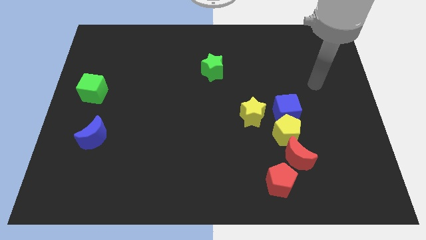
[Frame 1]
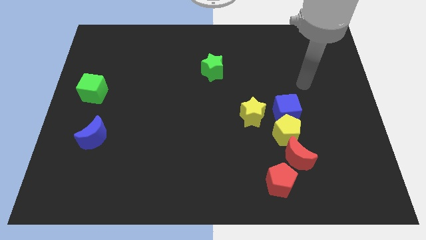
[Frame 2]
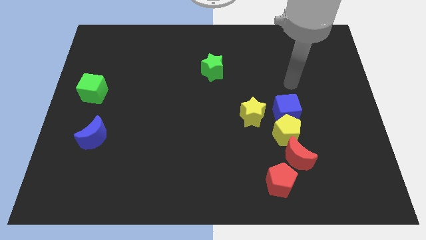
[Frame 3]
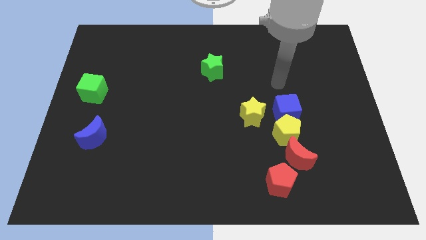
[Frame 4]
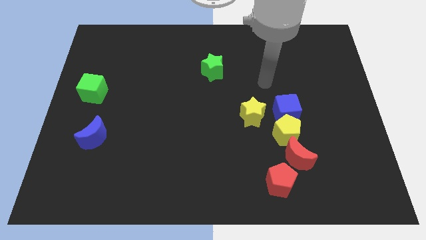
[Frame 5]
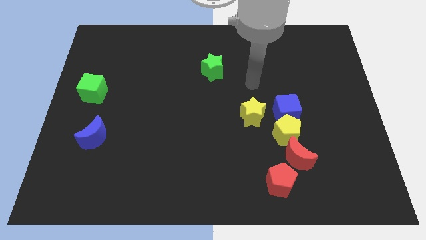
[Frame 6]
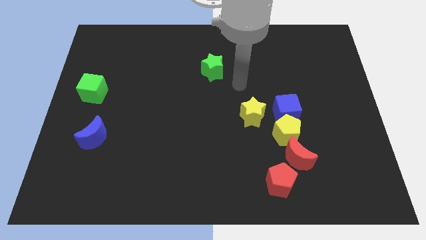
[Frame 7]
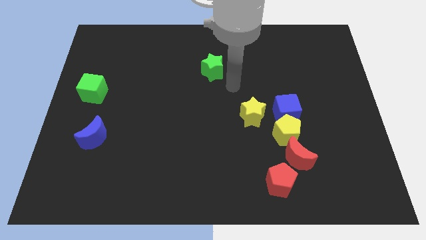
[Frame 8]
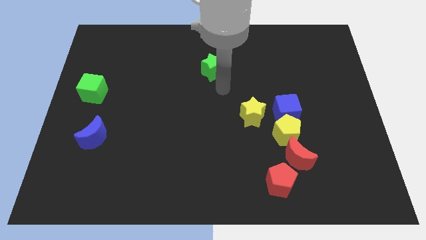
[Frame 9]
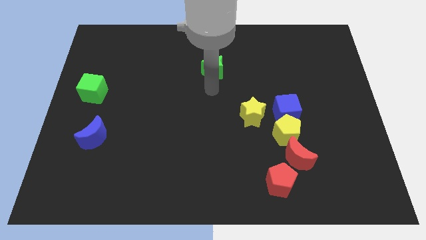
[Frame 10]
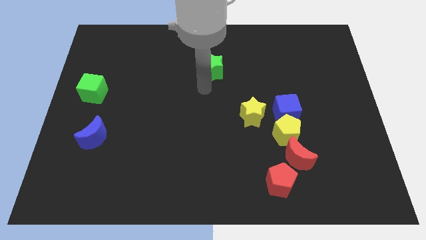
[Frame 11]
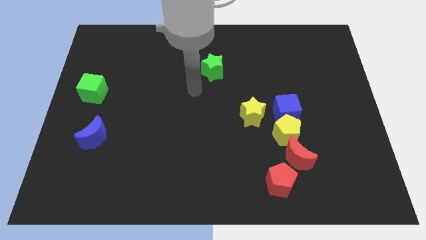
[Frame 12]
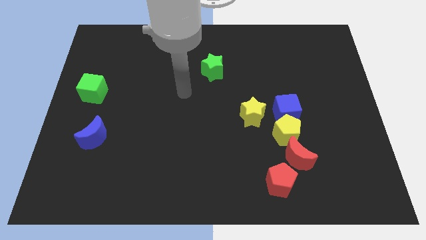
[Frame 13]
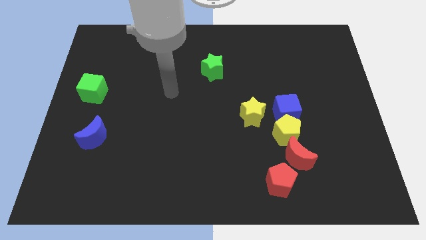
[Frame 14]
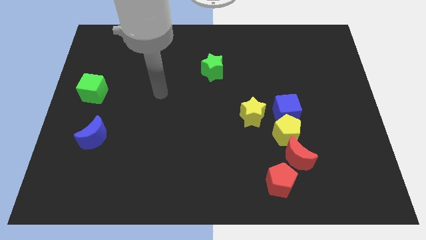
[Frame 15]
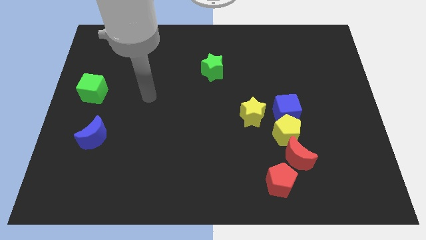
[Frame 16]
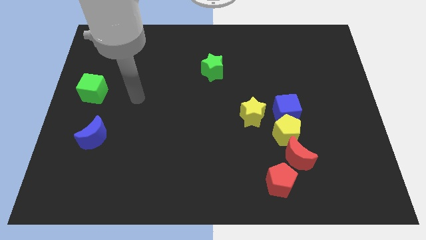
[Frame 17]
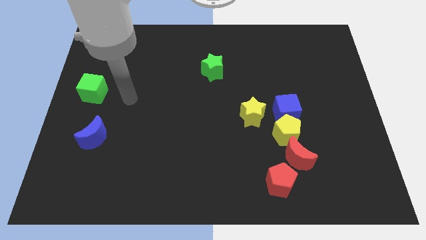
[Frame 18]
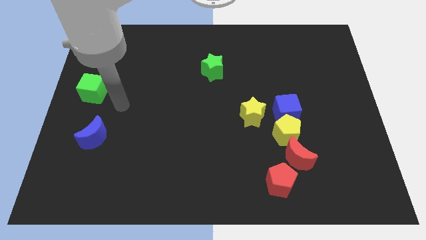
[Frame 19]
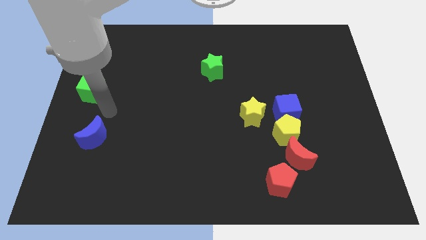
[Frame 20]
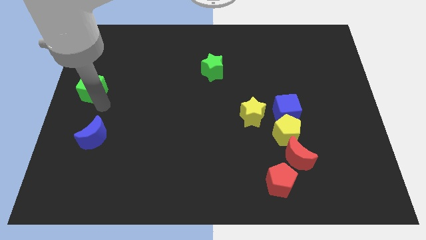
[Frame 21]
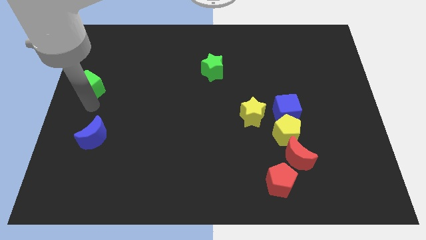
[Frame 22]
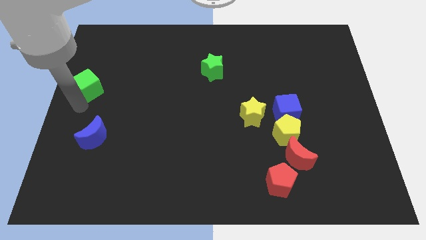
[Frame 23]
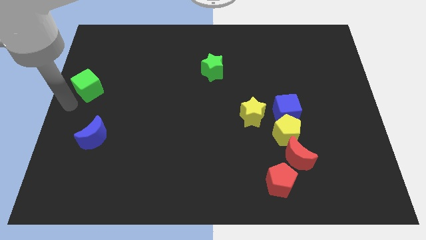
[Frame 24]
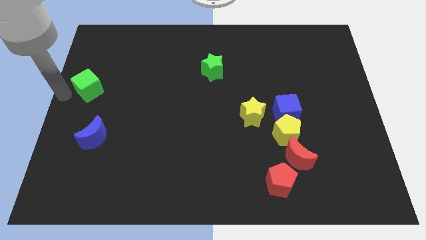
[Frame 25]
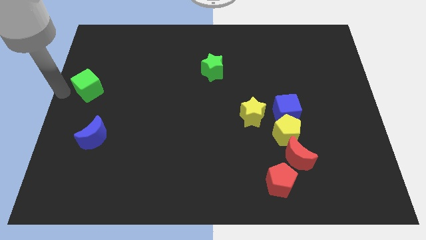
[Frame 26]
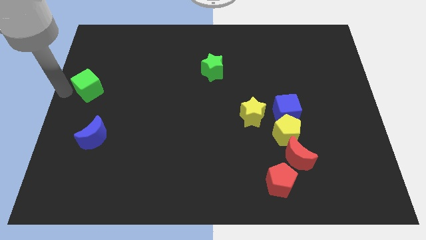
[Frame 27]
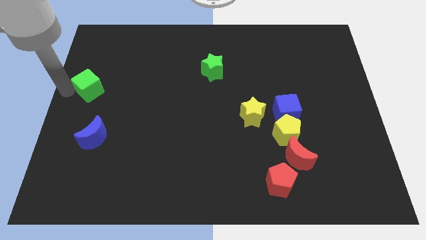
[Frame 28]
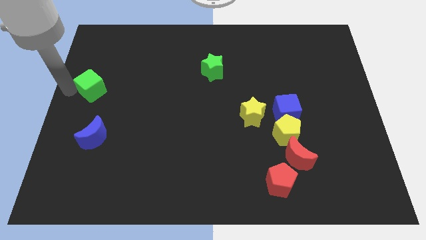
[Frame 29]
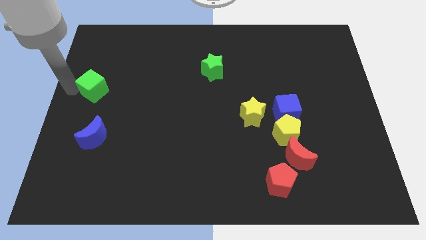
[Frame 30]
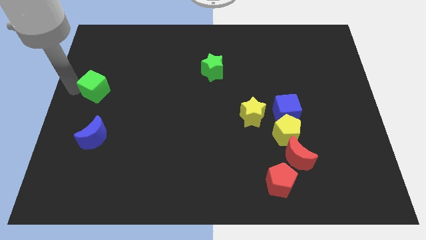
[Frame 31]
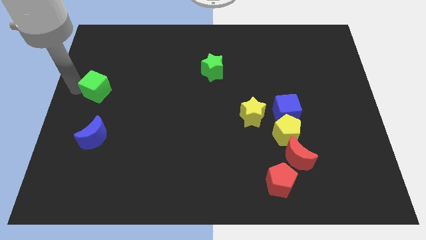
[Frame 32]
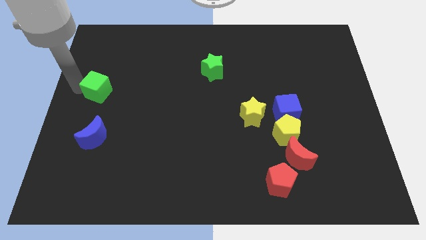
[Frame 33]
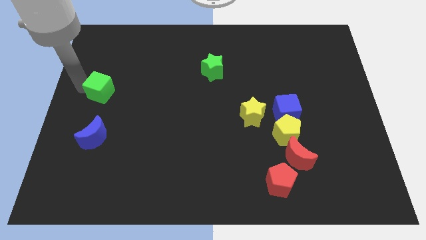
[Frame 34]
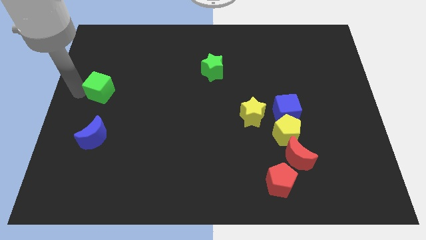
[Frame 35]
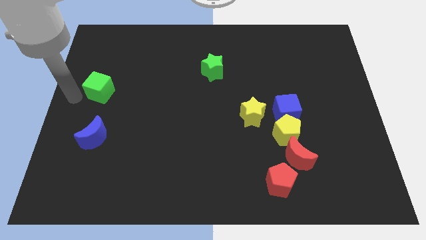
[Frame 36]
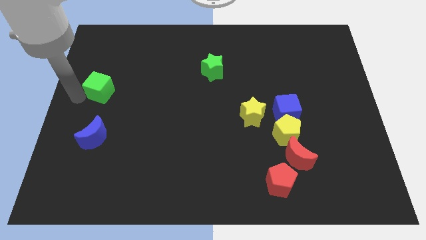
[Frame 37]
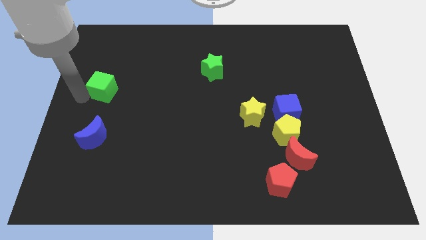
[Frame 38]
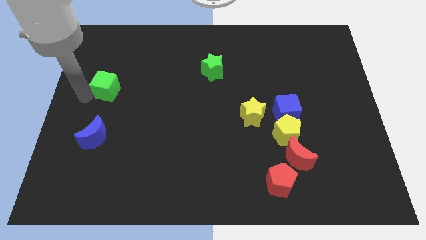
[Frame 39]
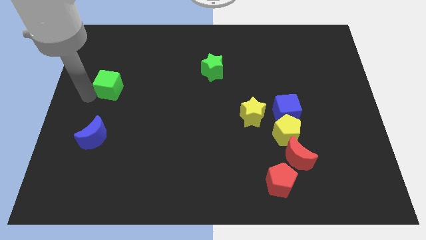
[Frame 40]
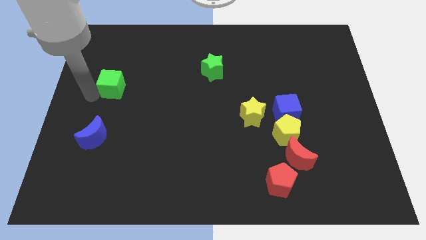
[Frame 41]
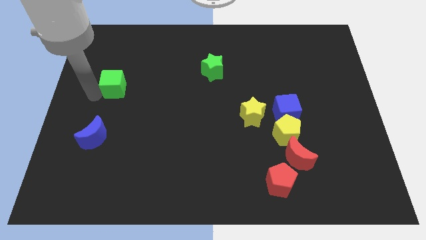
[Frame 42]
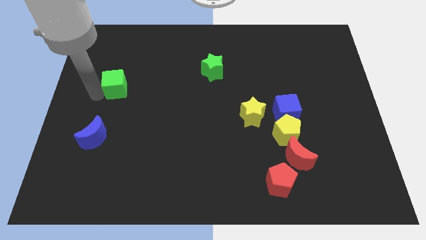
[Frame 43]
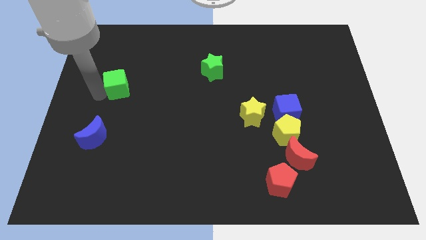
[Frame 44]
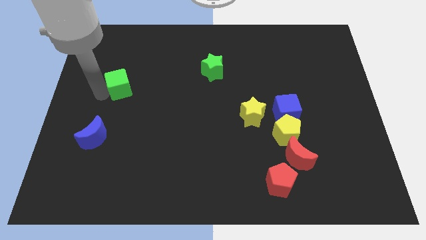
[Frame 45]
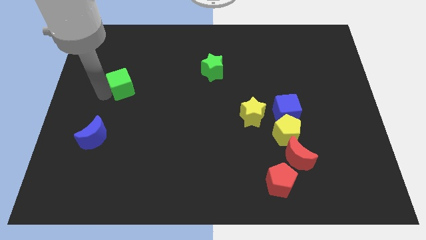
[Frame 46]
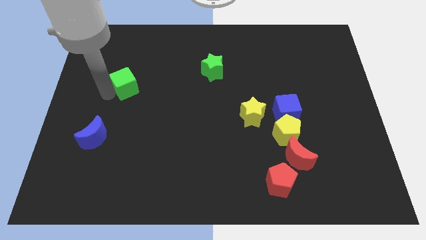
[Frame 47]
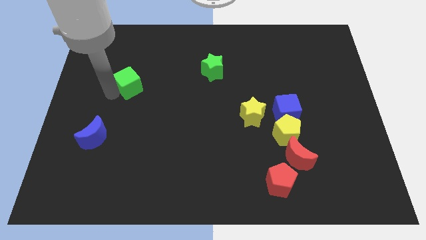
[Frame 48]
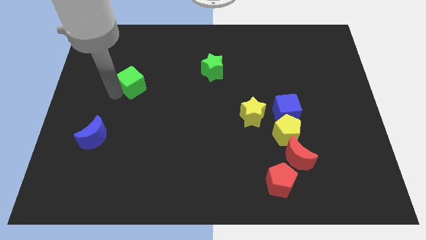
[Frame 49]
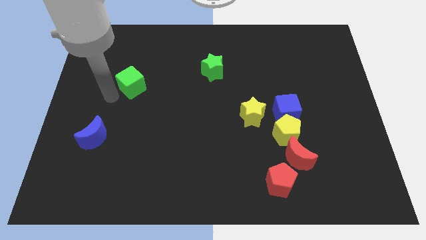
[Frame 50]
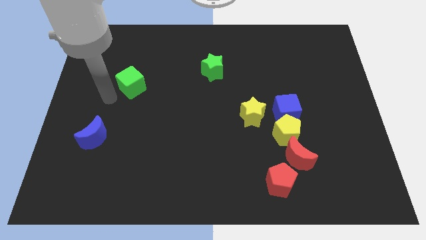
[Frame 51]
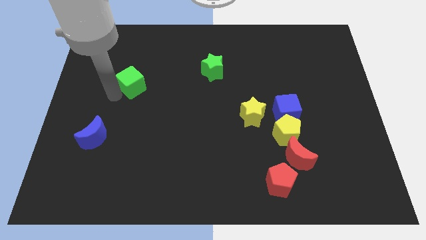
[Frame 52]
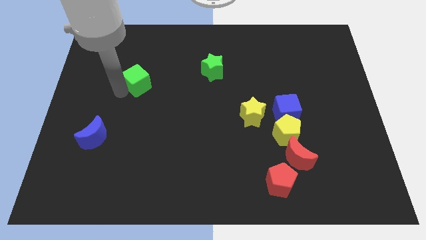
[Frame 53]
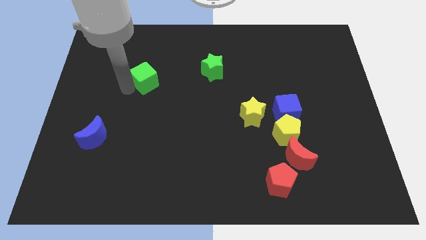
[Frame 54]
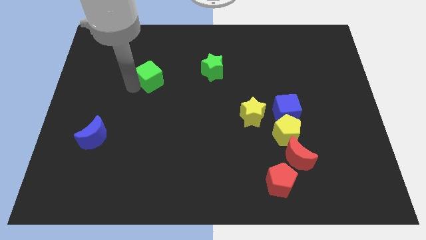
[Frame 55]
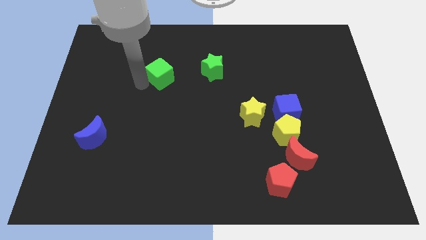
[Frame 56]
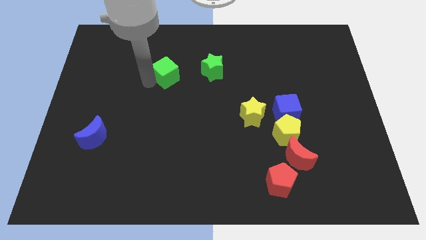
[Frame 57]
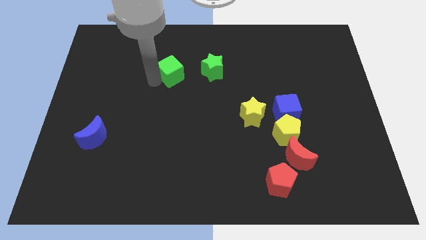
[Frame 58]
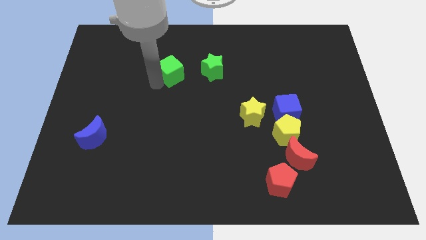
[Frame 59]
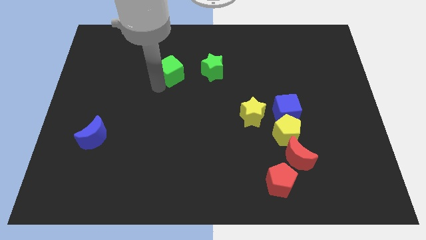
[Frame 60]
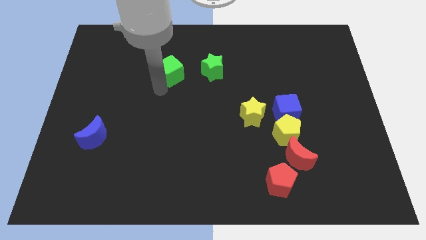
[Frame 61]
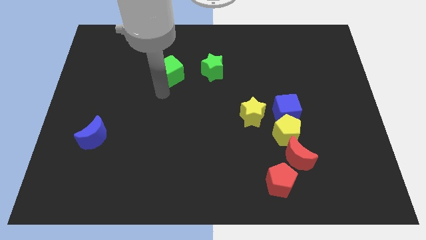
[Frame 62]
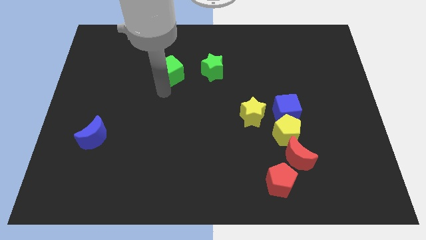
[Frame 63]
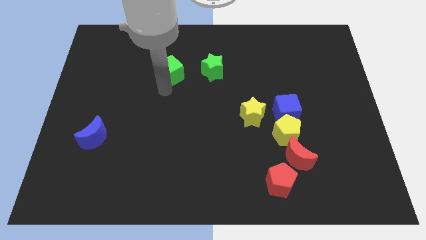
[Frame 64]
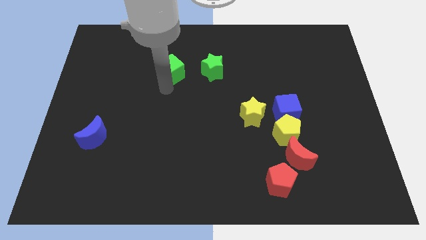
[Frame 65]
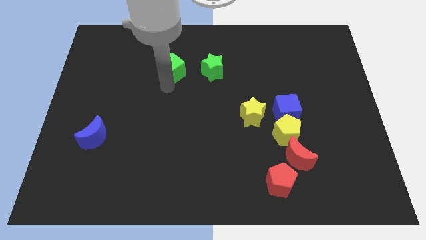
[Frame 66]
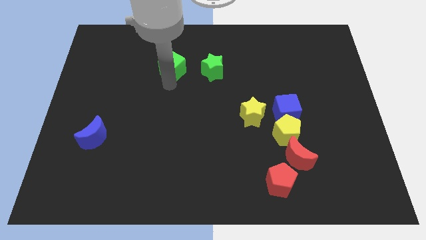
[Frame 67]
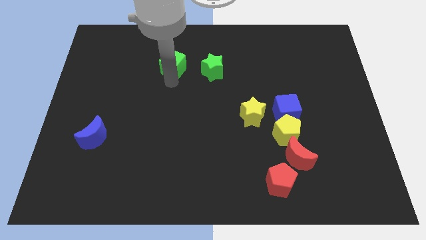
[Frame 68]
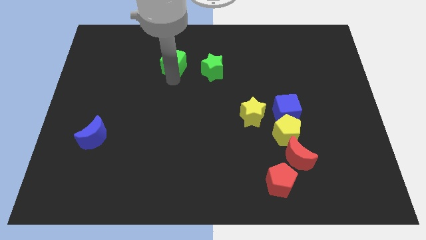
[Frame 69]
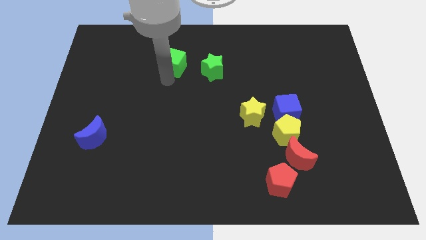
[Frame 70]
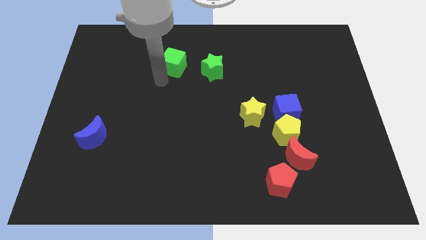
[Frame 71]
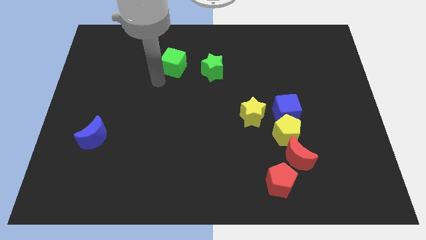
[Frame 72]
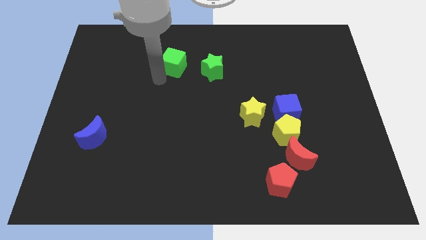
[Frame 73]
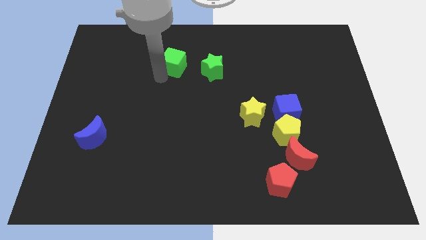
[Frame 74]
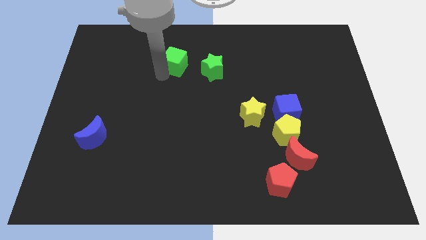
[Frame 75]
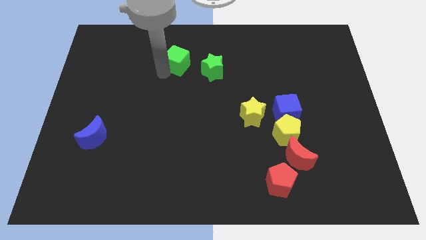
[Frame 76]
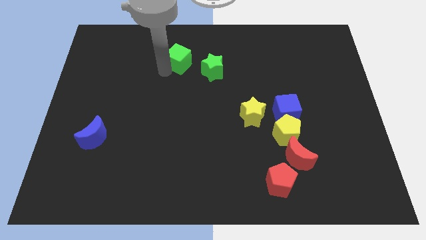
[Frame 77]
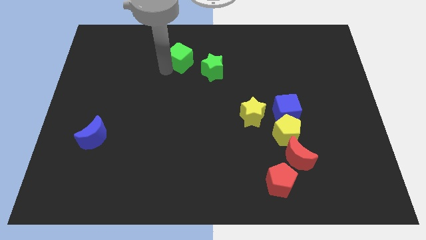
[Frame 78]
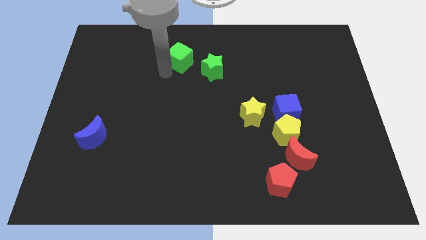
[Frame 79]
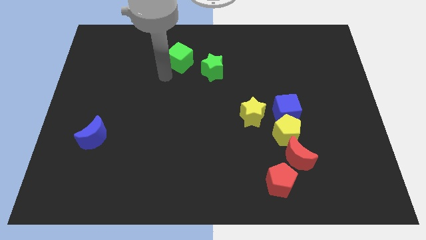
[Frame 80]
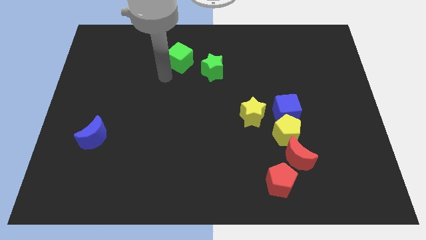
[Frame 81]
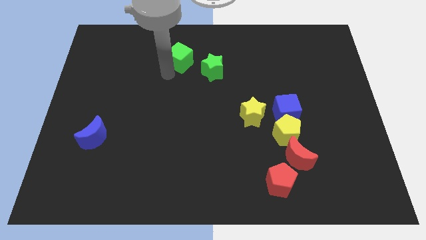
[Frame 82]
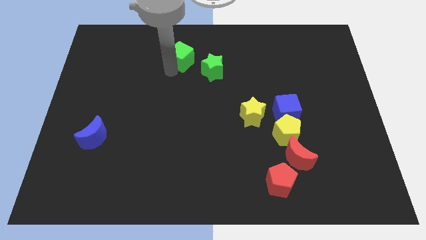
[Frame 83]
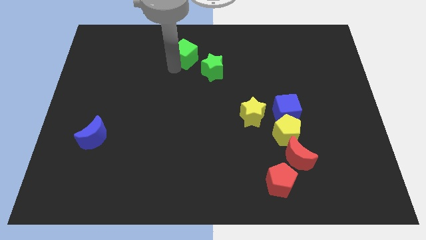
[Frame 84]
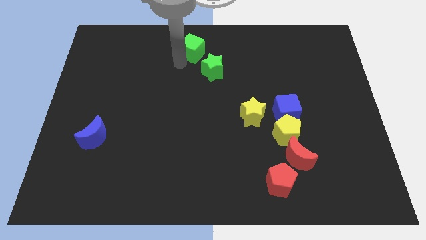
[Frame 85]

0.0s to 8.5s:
slide the green cube to the towards your base
